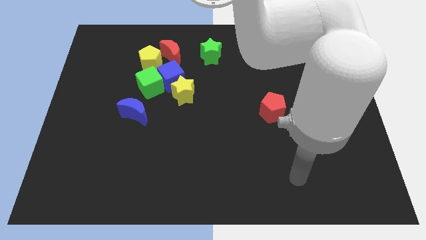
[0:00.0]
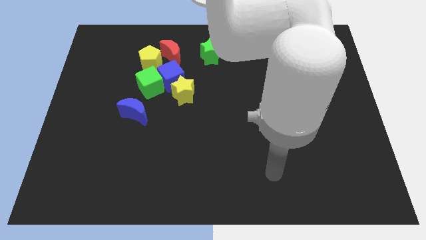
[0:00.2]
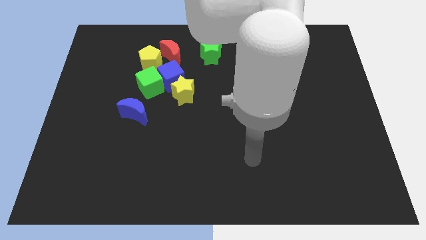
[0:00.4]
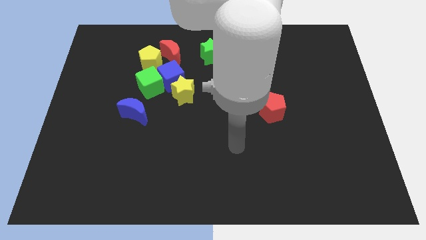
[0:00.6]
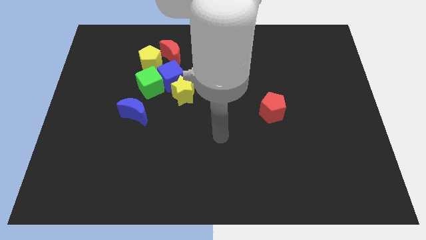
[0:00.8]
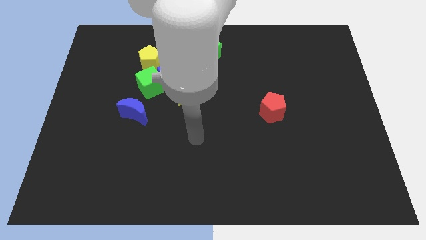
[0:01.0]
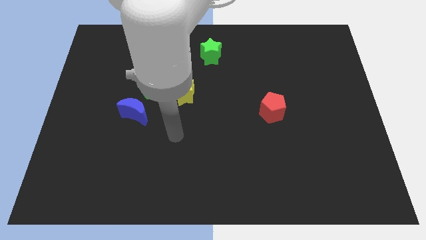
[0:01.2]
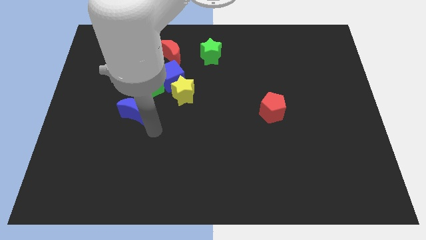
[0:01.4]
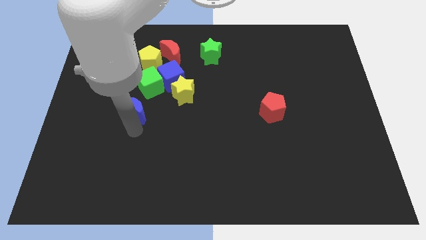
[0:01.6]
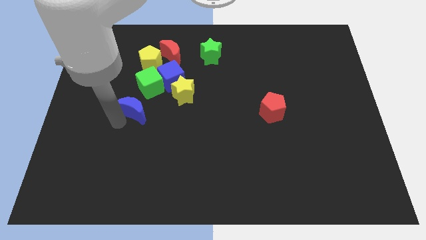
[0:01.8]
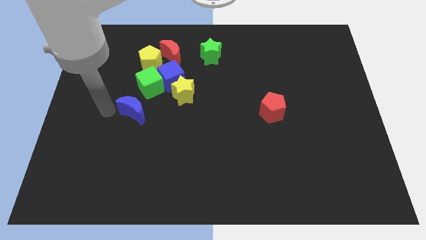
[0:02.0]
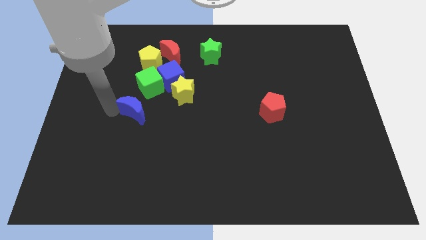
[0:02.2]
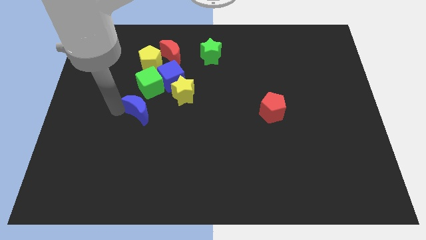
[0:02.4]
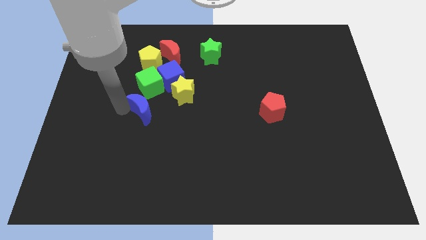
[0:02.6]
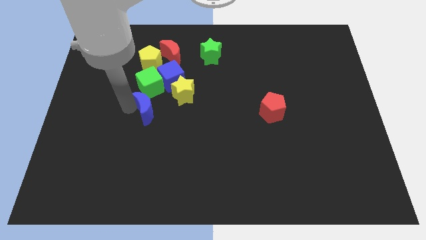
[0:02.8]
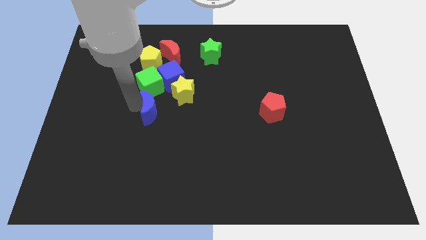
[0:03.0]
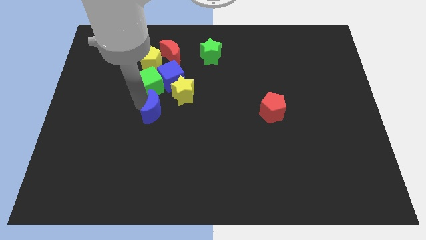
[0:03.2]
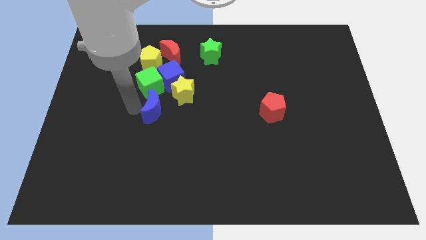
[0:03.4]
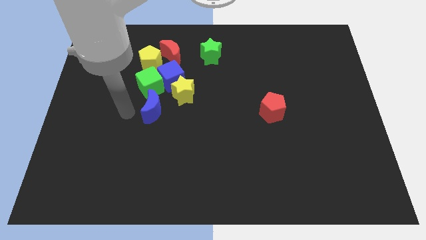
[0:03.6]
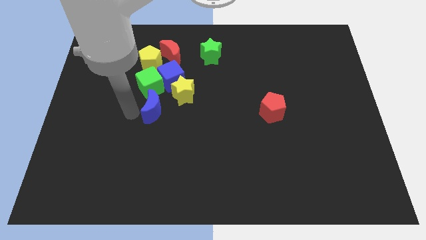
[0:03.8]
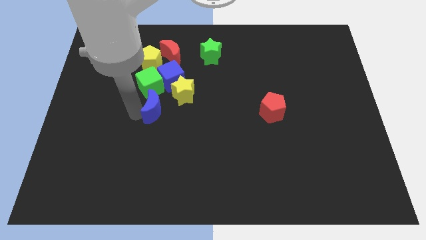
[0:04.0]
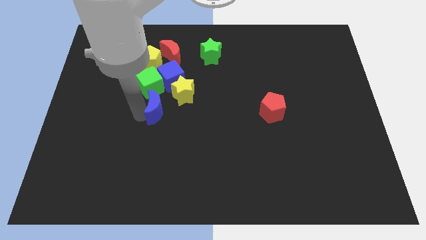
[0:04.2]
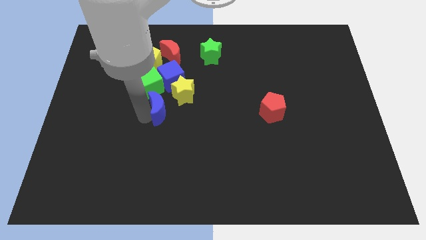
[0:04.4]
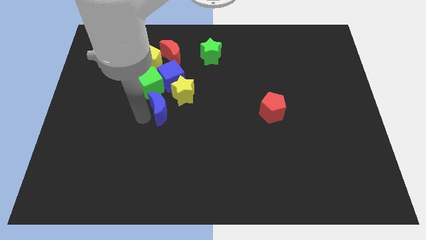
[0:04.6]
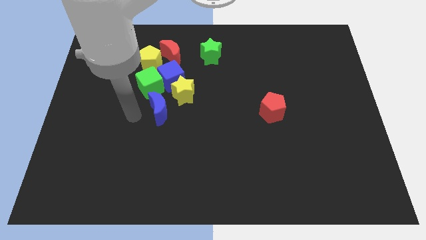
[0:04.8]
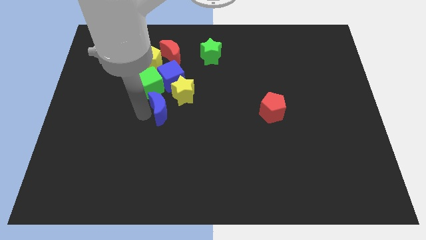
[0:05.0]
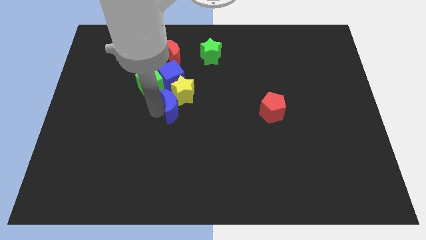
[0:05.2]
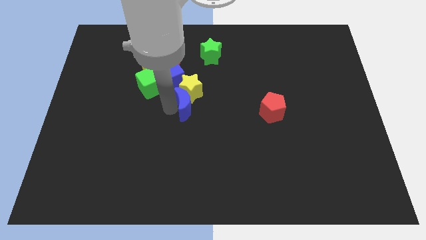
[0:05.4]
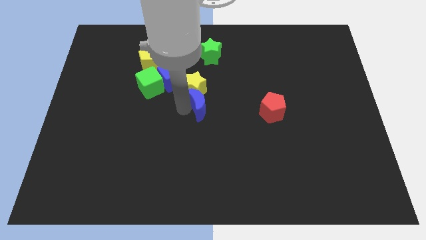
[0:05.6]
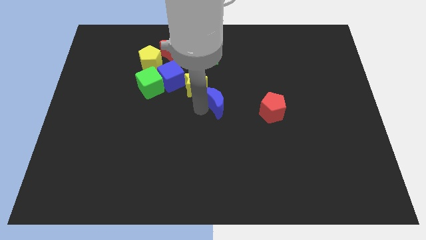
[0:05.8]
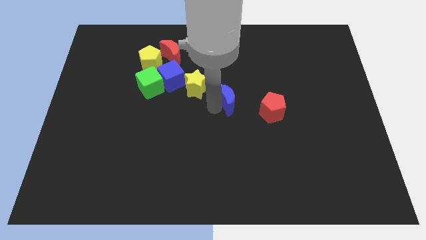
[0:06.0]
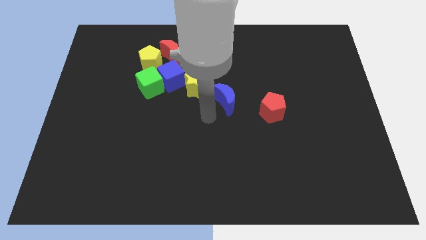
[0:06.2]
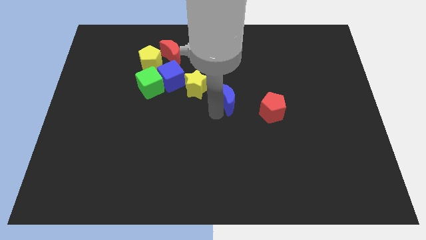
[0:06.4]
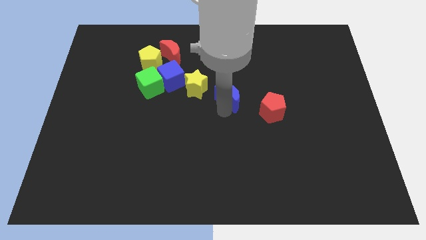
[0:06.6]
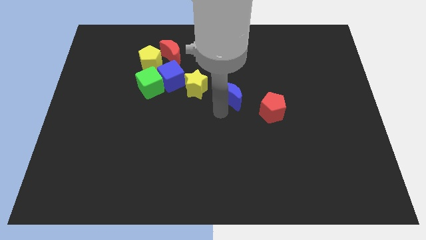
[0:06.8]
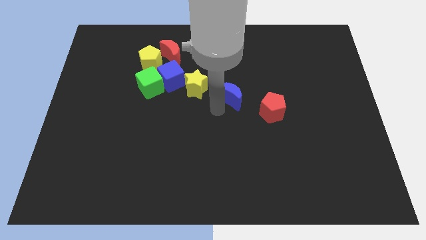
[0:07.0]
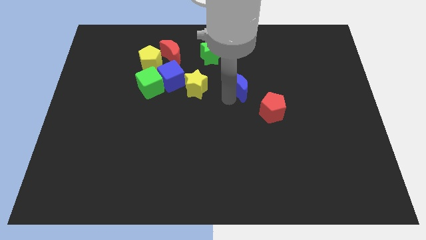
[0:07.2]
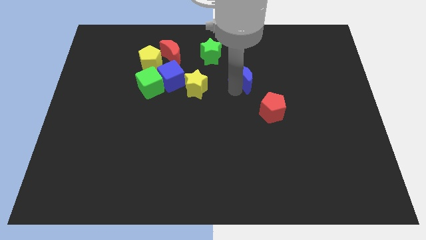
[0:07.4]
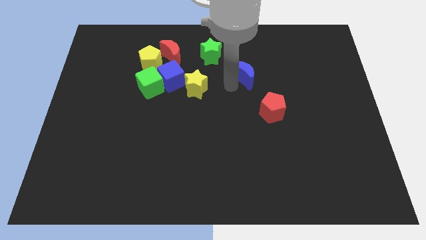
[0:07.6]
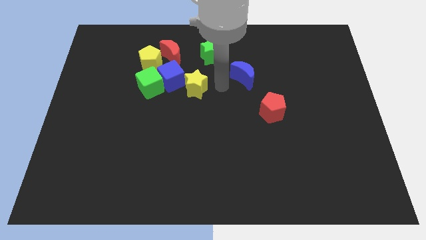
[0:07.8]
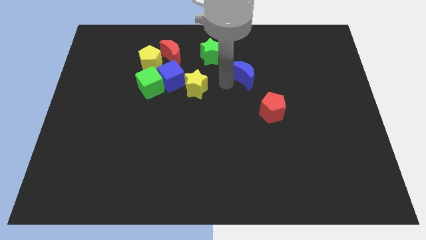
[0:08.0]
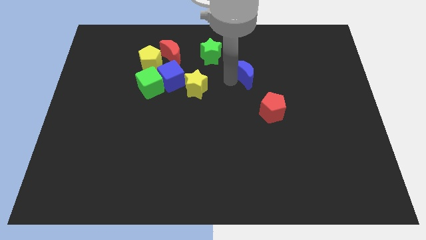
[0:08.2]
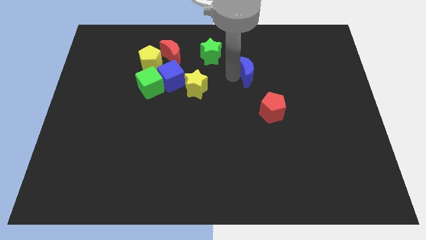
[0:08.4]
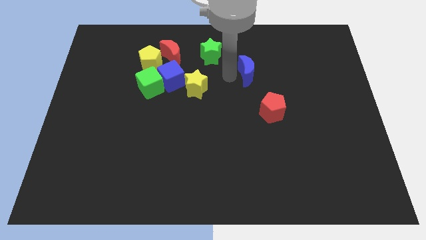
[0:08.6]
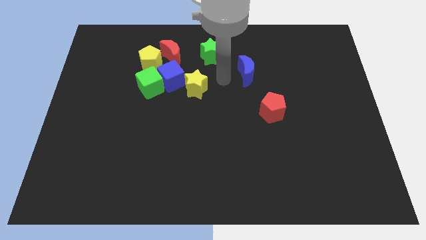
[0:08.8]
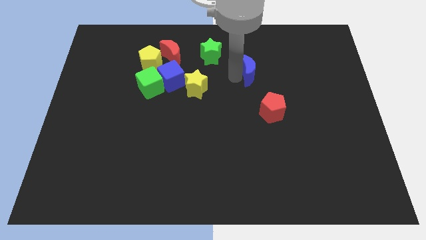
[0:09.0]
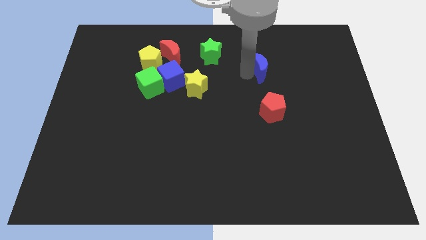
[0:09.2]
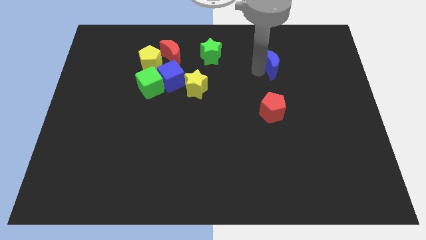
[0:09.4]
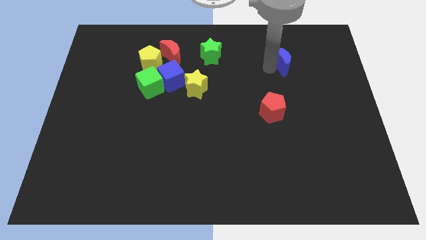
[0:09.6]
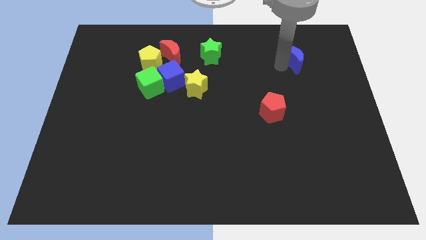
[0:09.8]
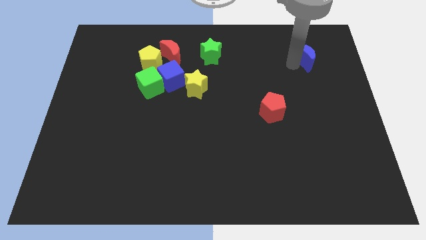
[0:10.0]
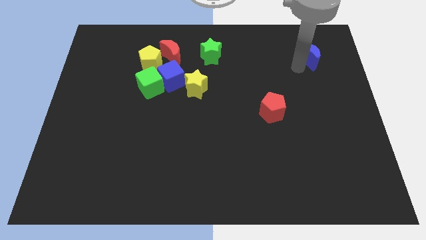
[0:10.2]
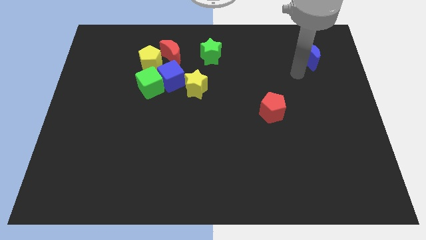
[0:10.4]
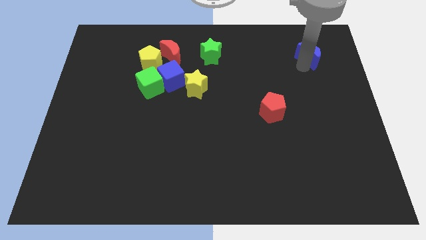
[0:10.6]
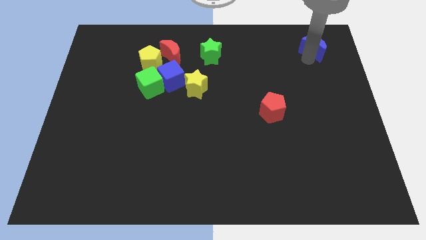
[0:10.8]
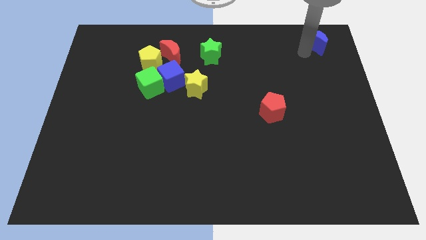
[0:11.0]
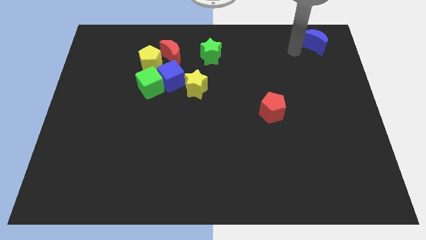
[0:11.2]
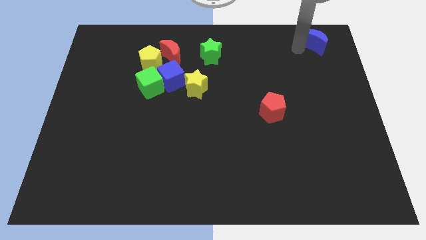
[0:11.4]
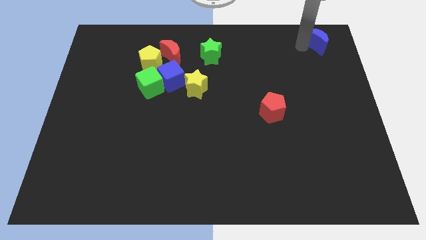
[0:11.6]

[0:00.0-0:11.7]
push the blue moon to the upper right corner
